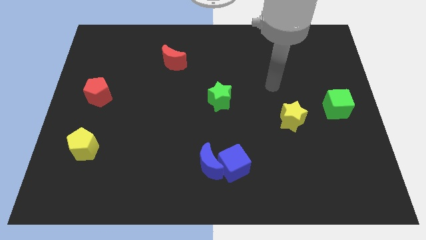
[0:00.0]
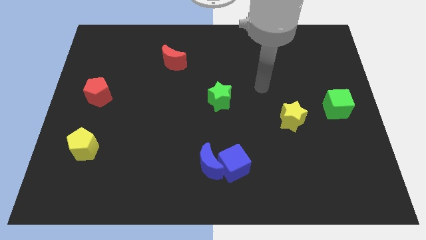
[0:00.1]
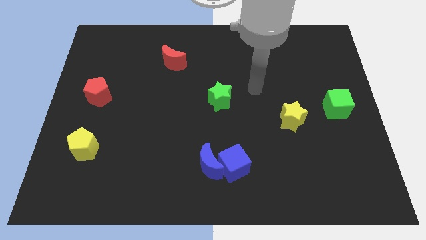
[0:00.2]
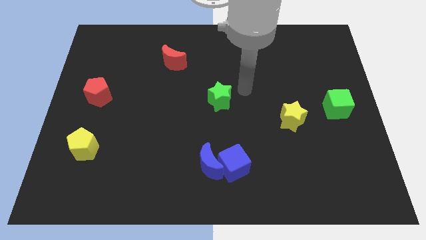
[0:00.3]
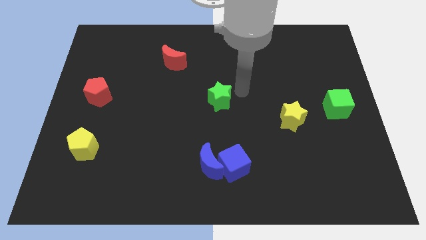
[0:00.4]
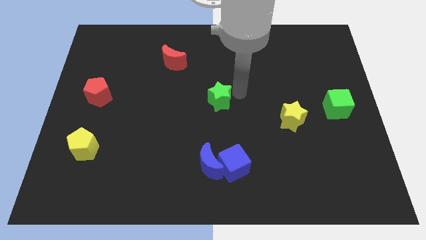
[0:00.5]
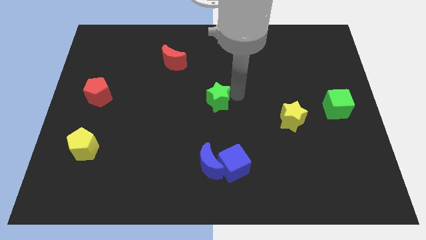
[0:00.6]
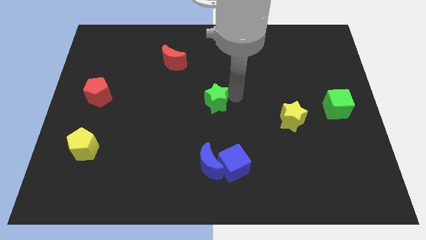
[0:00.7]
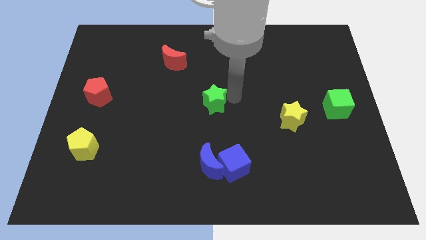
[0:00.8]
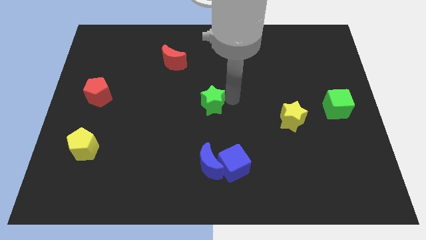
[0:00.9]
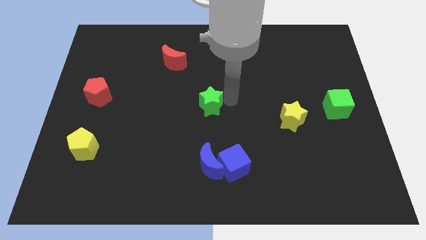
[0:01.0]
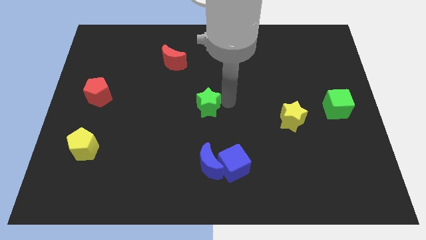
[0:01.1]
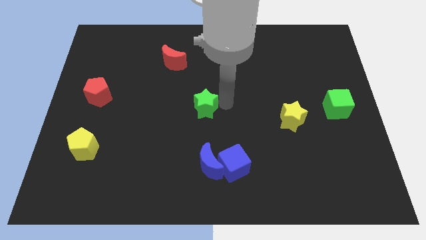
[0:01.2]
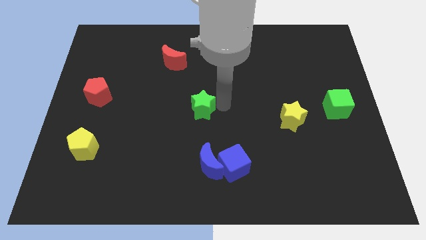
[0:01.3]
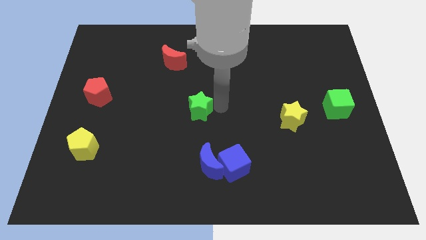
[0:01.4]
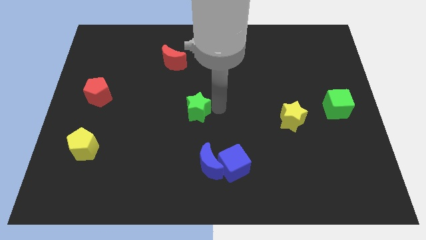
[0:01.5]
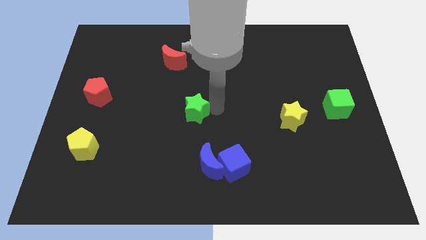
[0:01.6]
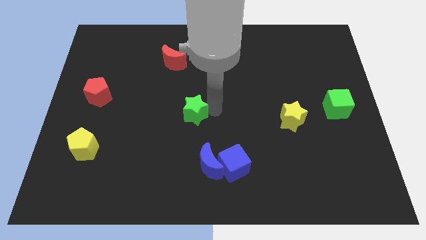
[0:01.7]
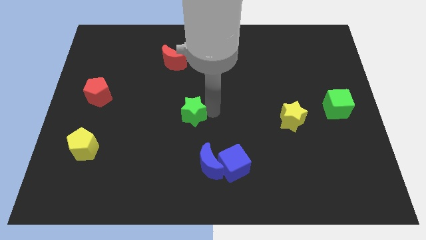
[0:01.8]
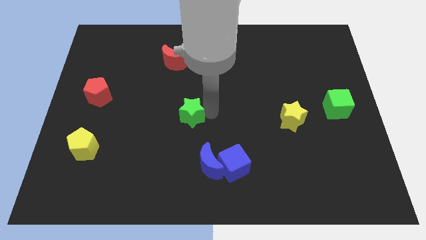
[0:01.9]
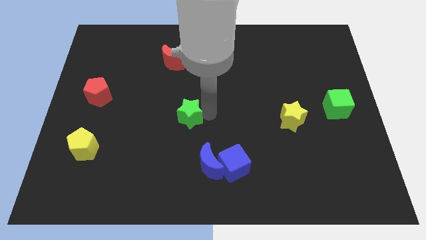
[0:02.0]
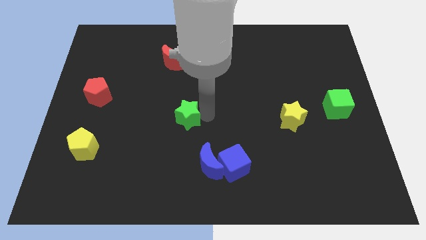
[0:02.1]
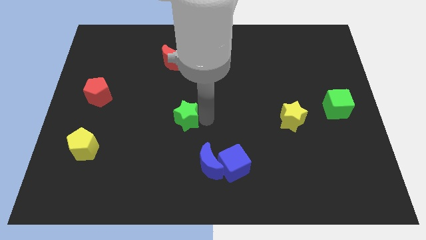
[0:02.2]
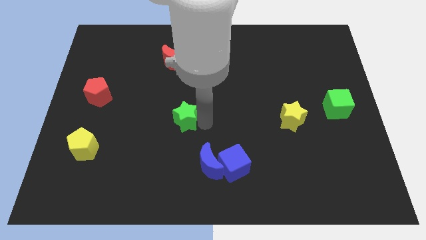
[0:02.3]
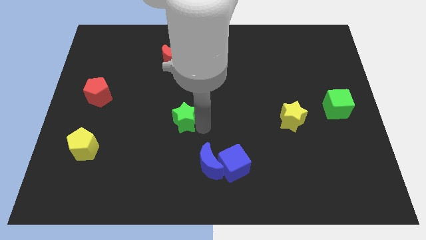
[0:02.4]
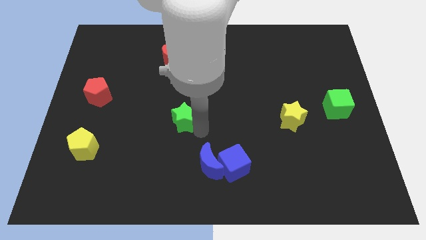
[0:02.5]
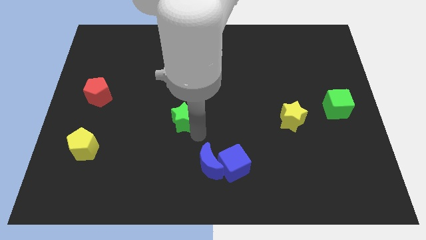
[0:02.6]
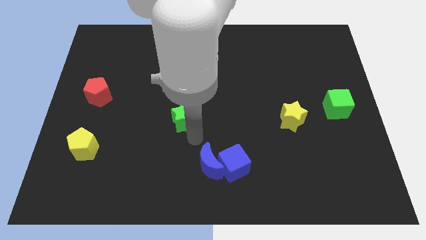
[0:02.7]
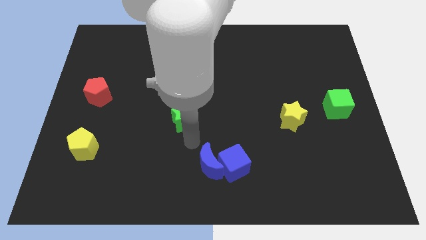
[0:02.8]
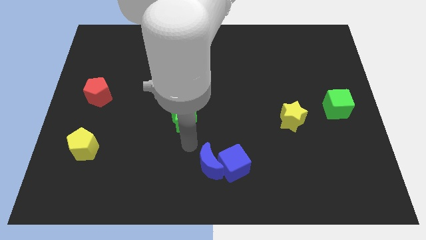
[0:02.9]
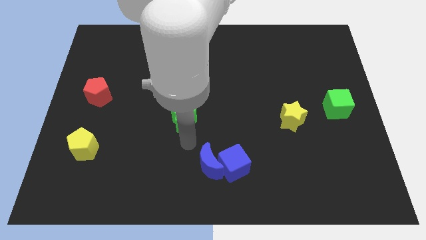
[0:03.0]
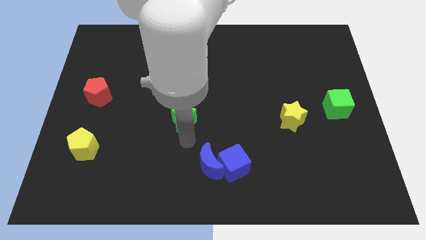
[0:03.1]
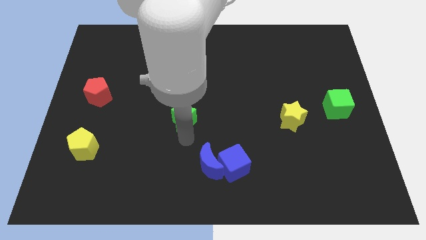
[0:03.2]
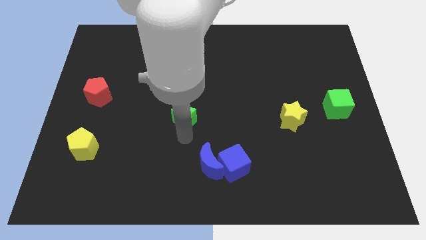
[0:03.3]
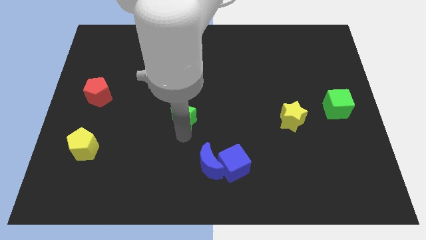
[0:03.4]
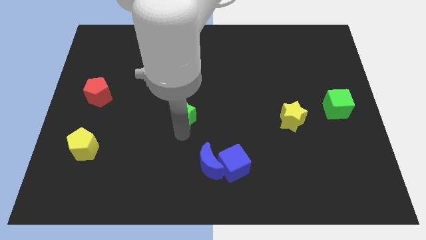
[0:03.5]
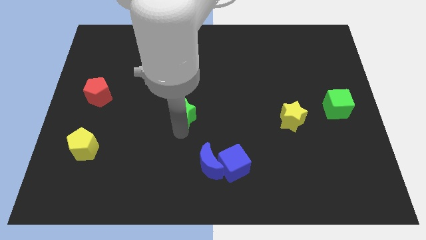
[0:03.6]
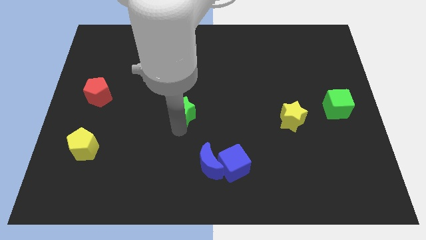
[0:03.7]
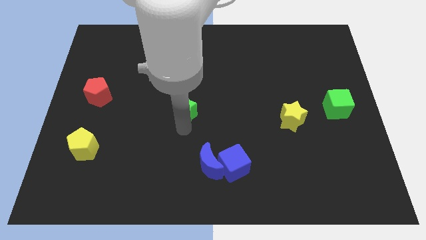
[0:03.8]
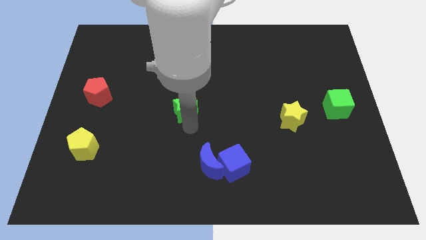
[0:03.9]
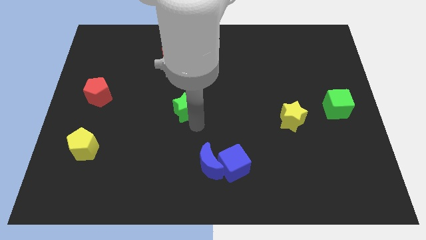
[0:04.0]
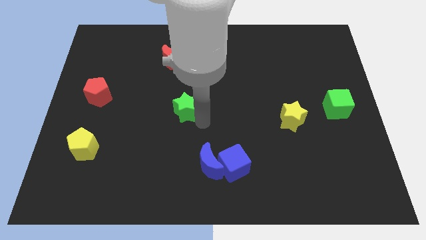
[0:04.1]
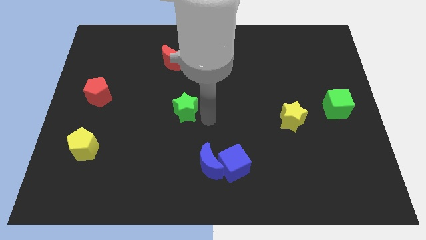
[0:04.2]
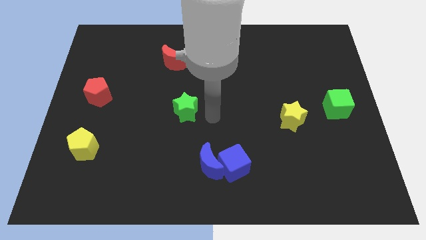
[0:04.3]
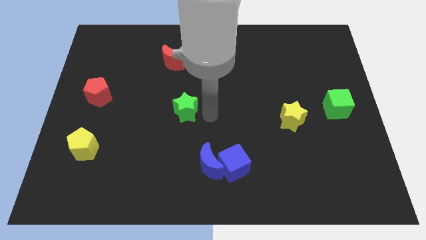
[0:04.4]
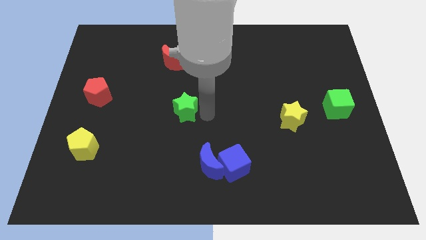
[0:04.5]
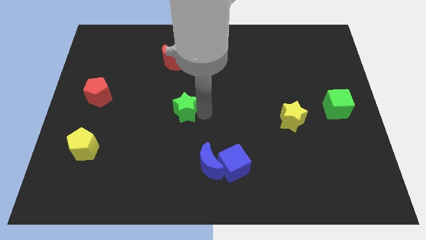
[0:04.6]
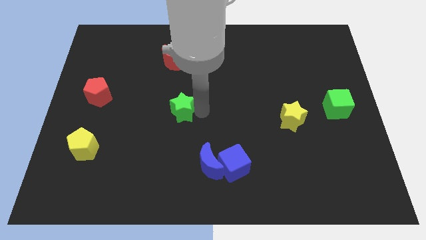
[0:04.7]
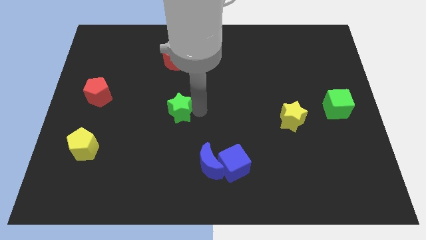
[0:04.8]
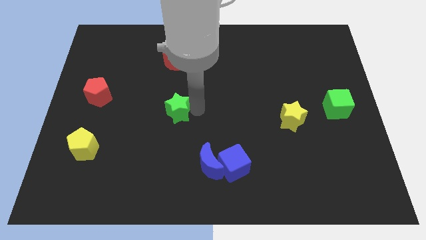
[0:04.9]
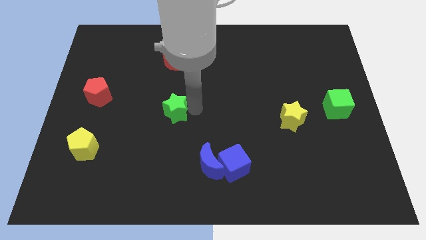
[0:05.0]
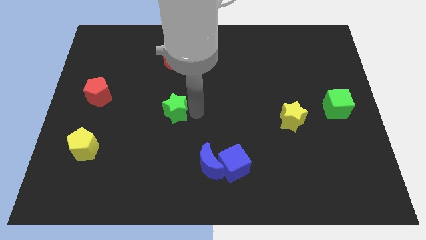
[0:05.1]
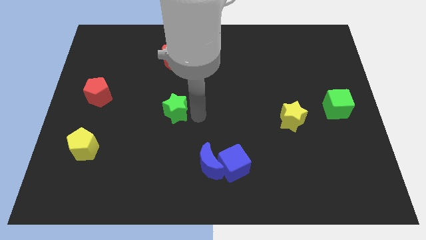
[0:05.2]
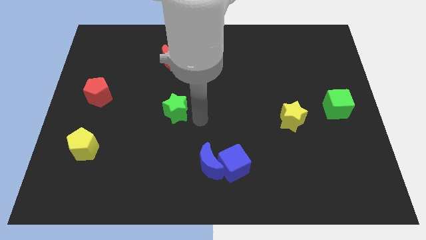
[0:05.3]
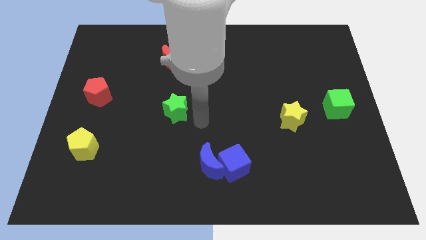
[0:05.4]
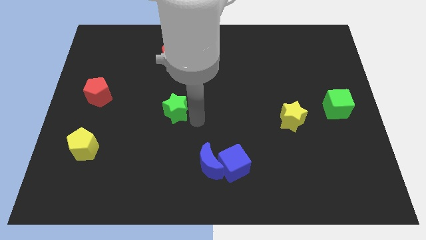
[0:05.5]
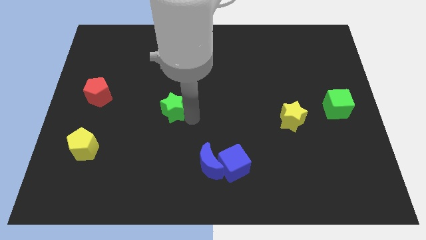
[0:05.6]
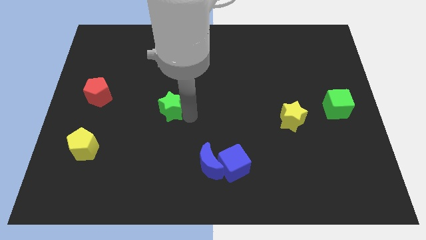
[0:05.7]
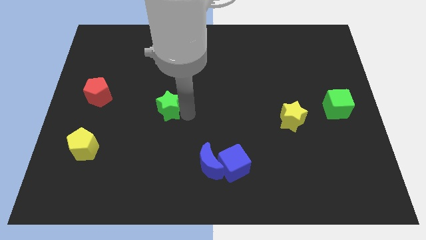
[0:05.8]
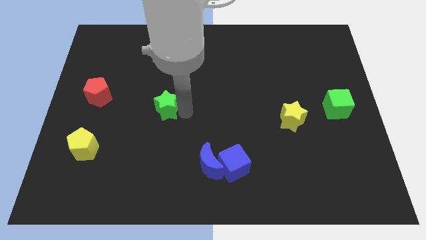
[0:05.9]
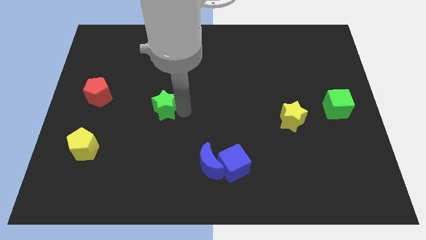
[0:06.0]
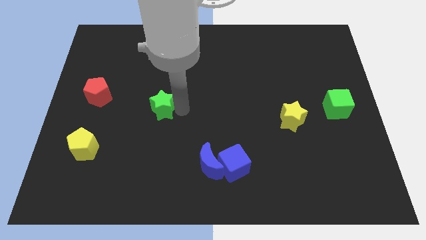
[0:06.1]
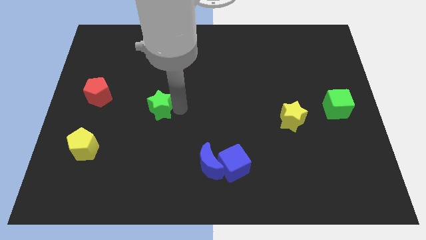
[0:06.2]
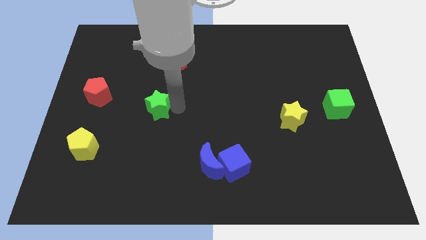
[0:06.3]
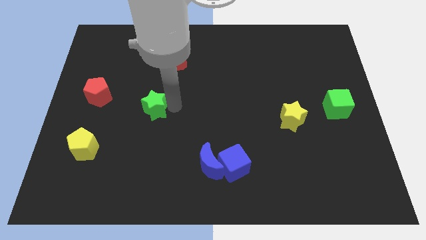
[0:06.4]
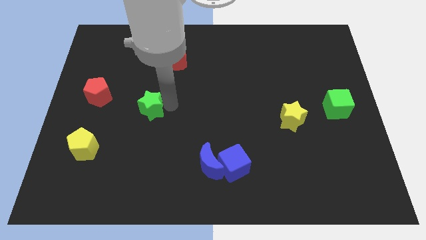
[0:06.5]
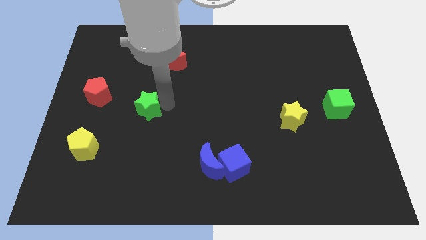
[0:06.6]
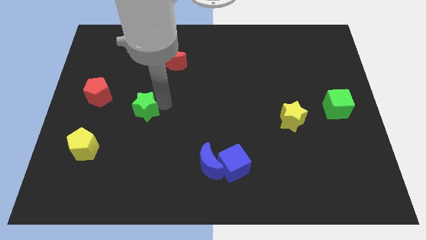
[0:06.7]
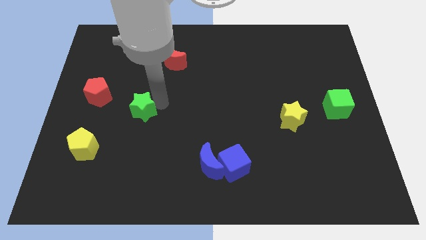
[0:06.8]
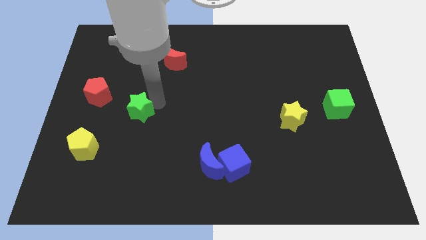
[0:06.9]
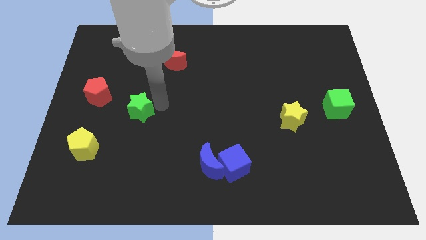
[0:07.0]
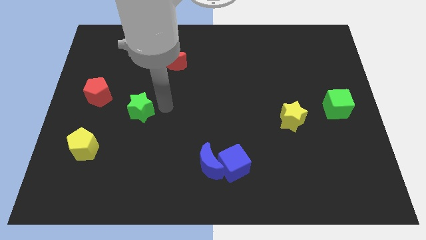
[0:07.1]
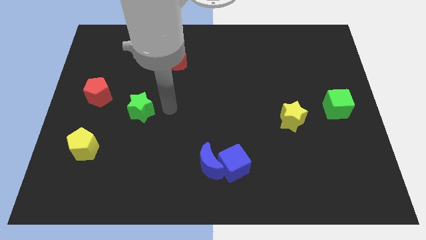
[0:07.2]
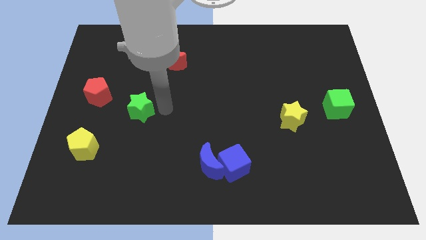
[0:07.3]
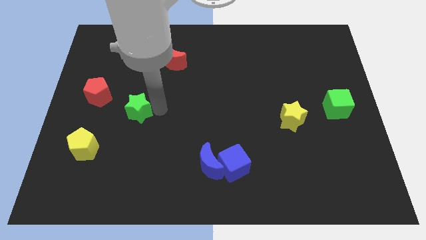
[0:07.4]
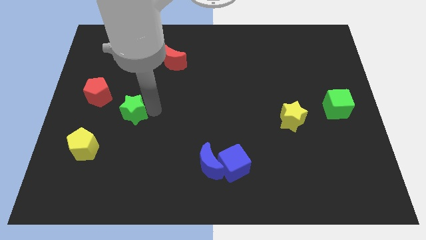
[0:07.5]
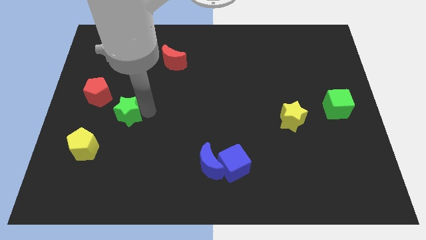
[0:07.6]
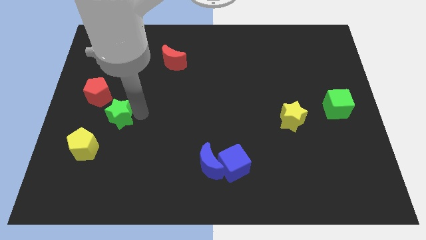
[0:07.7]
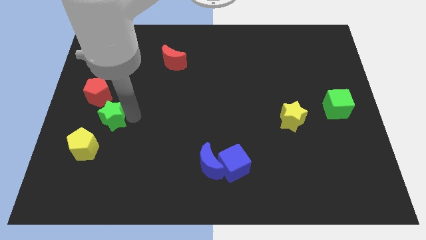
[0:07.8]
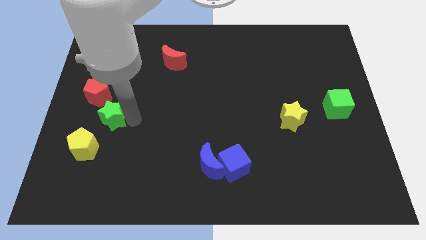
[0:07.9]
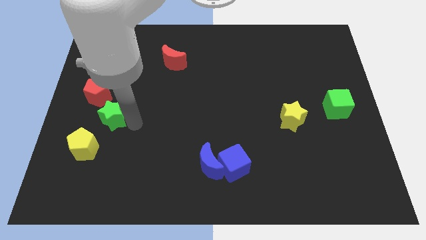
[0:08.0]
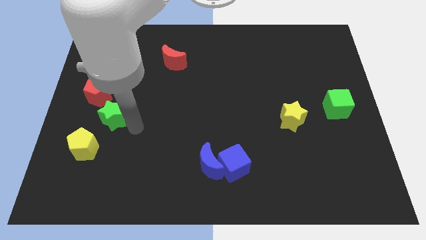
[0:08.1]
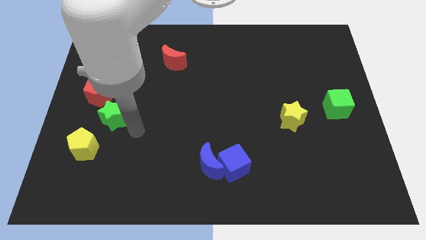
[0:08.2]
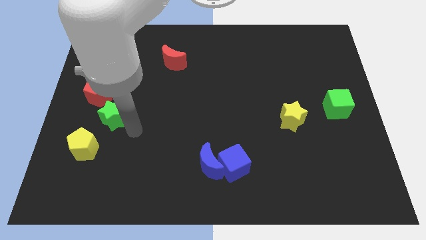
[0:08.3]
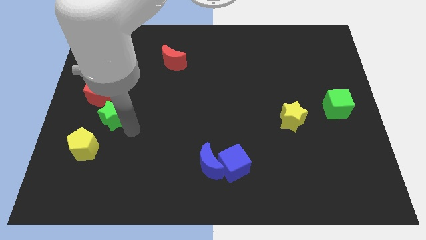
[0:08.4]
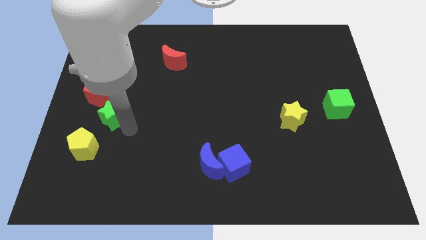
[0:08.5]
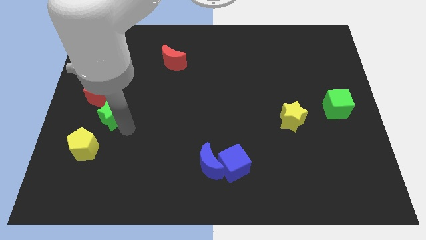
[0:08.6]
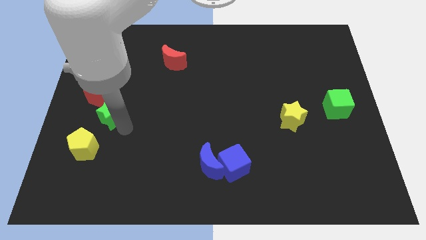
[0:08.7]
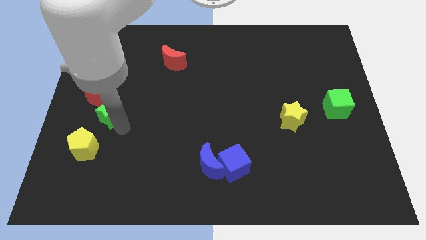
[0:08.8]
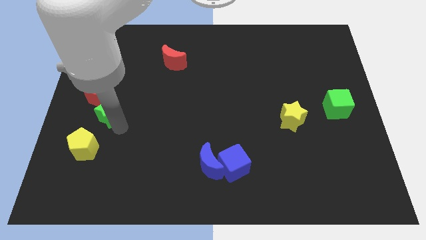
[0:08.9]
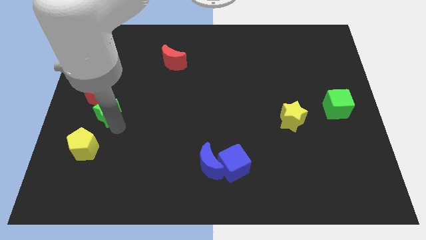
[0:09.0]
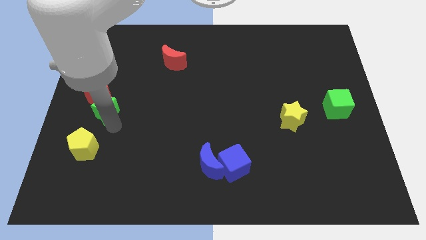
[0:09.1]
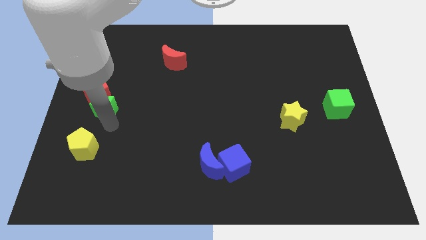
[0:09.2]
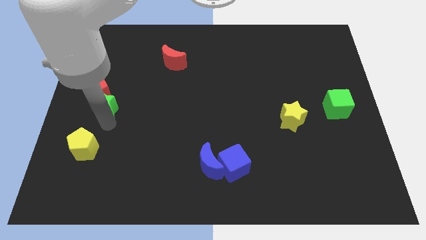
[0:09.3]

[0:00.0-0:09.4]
push the green star to the left side of the board
